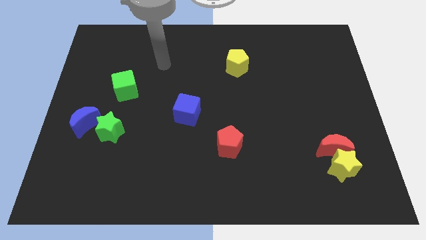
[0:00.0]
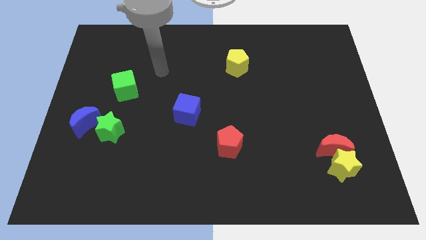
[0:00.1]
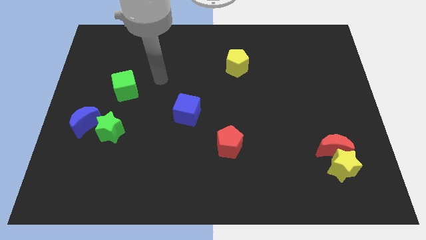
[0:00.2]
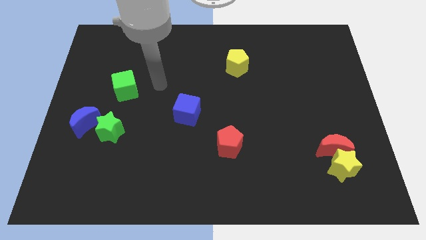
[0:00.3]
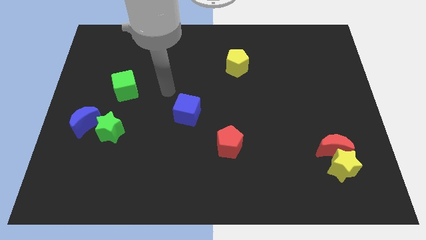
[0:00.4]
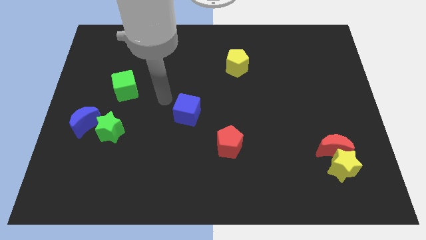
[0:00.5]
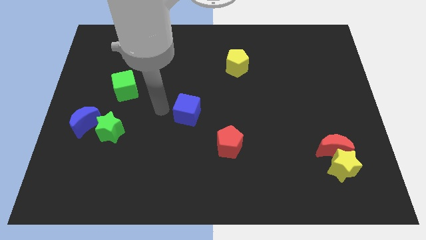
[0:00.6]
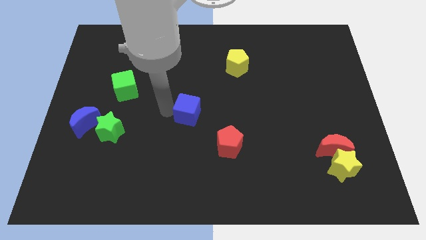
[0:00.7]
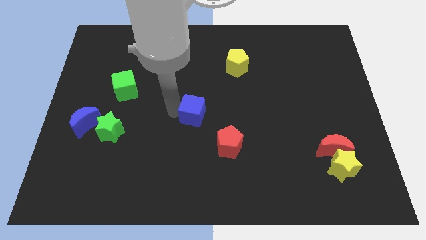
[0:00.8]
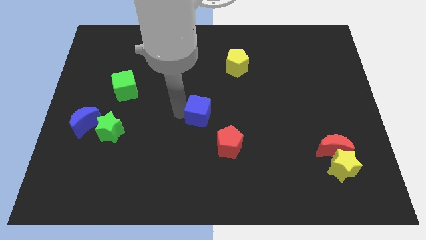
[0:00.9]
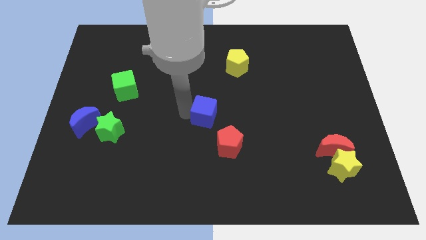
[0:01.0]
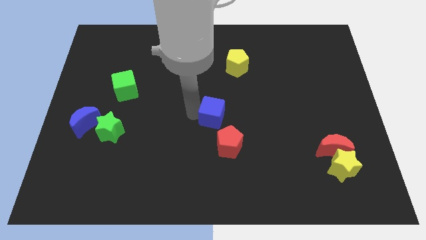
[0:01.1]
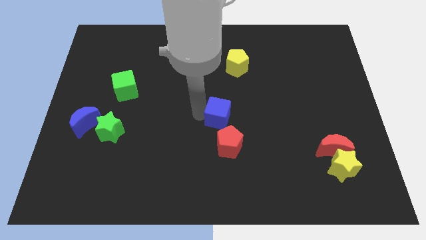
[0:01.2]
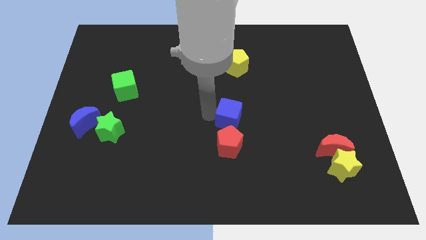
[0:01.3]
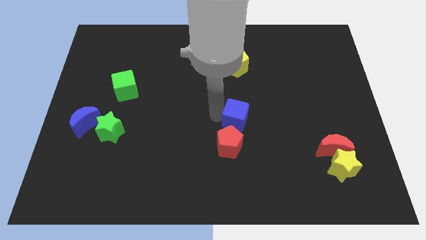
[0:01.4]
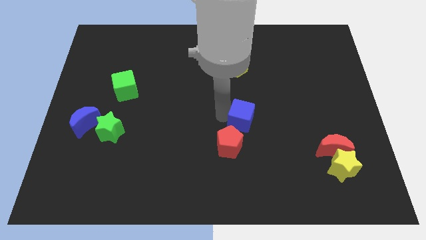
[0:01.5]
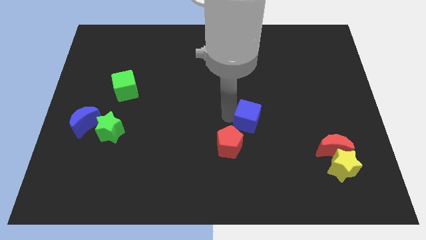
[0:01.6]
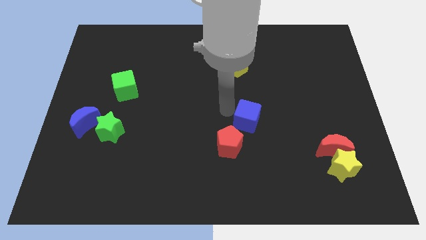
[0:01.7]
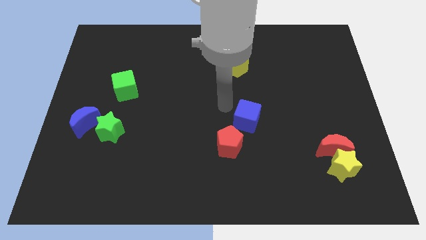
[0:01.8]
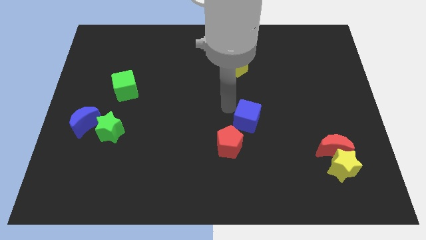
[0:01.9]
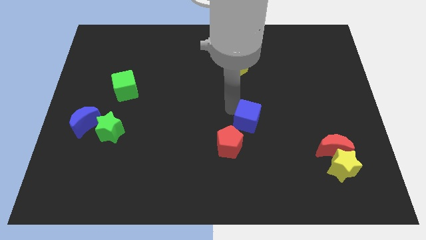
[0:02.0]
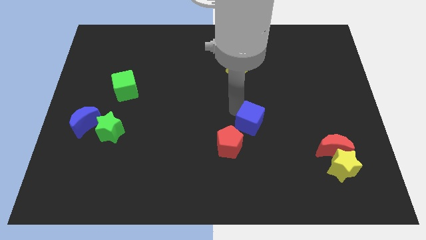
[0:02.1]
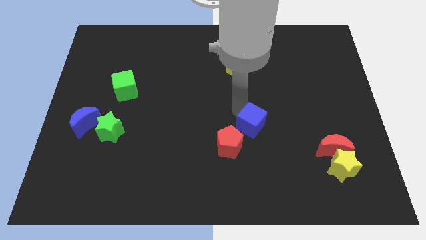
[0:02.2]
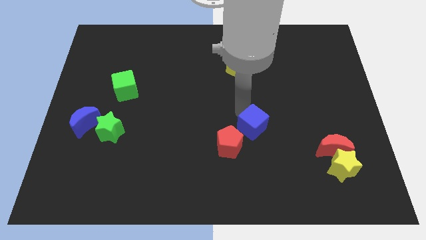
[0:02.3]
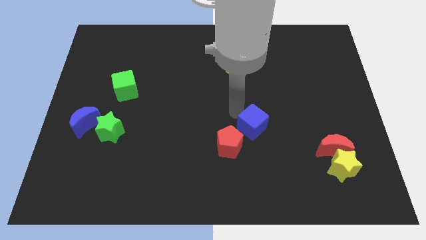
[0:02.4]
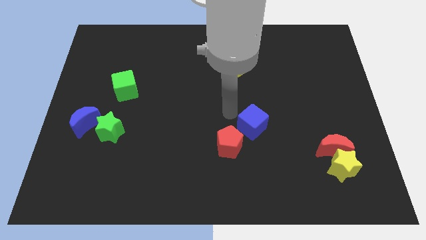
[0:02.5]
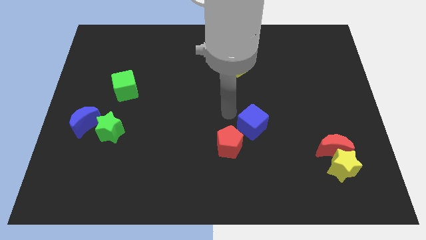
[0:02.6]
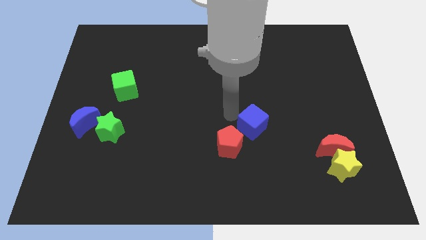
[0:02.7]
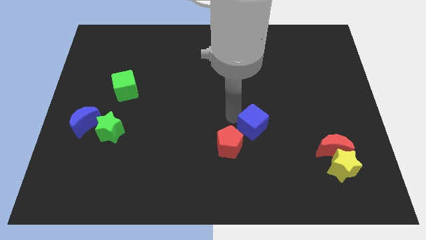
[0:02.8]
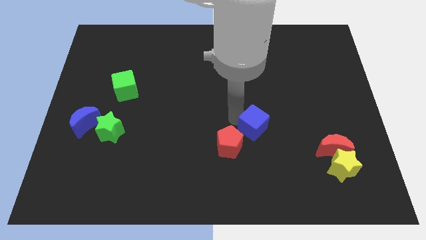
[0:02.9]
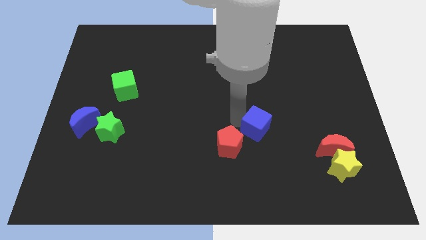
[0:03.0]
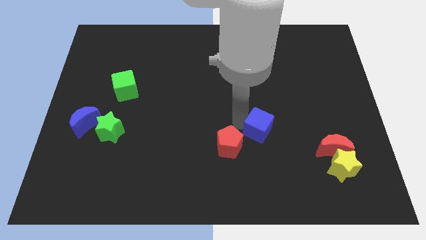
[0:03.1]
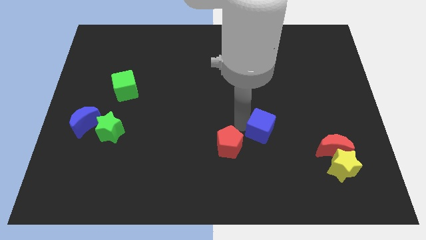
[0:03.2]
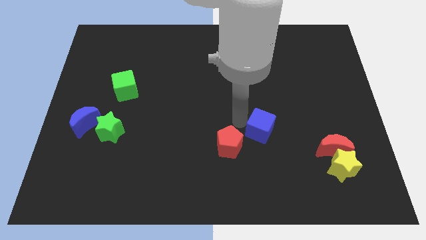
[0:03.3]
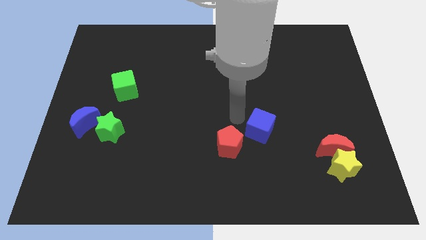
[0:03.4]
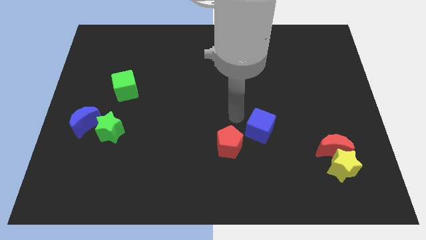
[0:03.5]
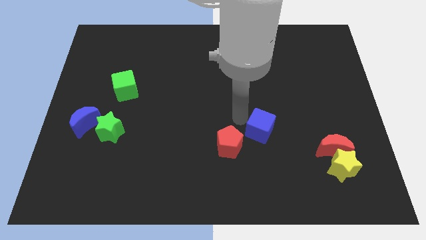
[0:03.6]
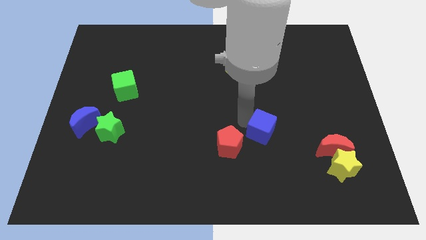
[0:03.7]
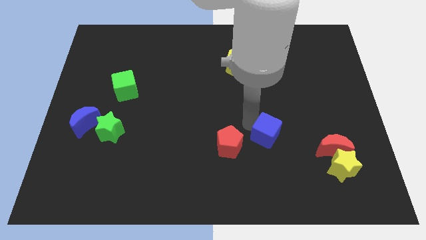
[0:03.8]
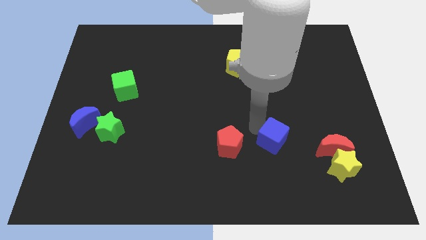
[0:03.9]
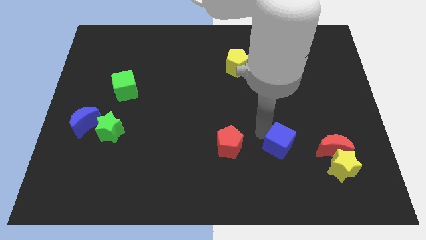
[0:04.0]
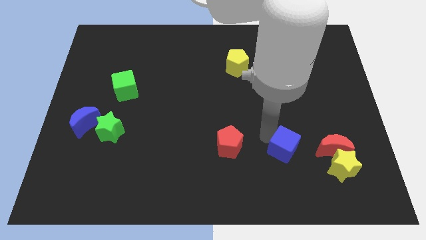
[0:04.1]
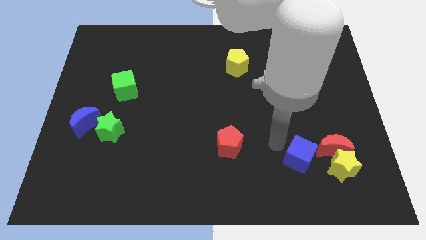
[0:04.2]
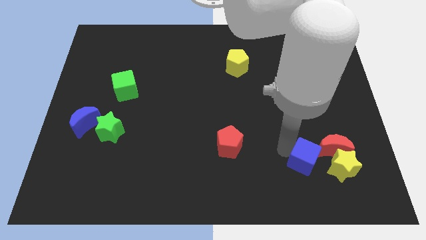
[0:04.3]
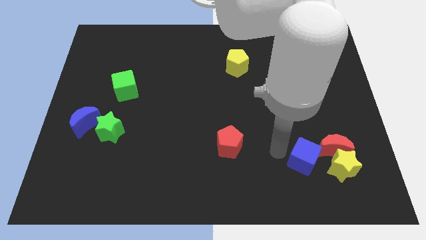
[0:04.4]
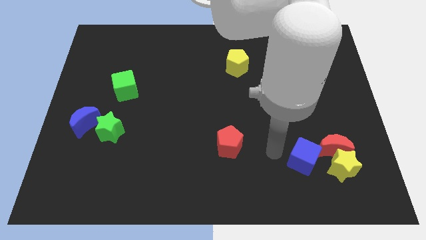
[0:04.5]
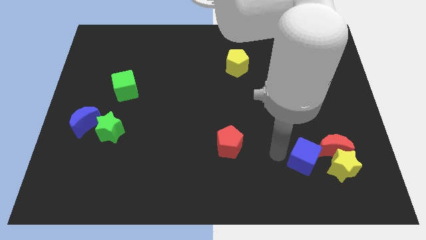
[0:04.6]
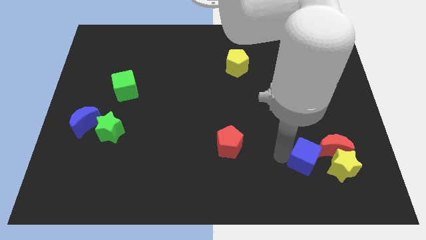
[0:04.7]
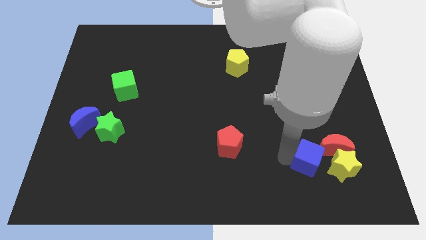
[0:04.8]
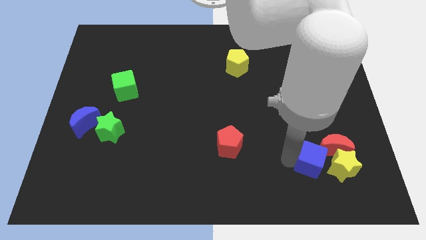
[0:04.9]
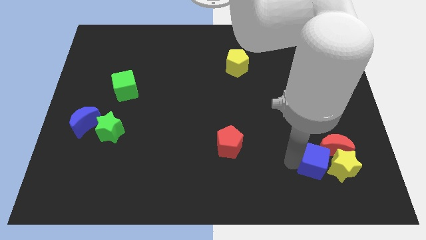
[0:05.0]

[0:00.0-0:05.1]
move the blue cube towards the yellow star

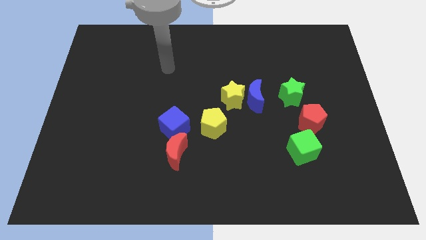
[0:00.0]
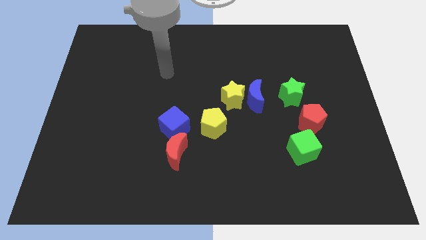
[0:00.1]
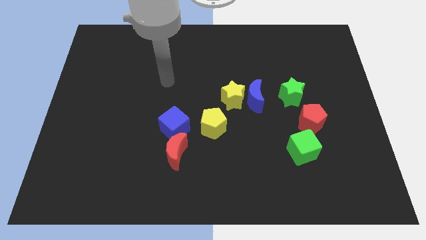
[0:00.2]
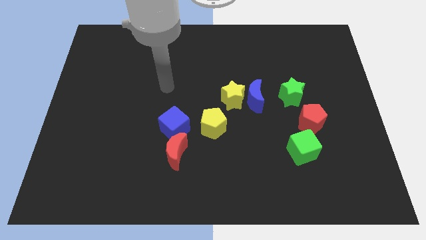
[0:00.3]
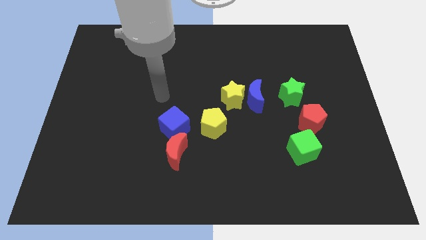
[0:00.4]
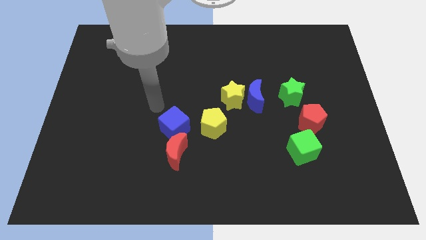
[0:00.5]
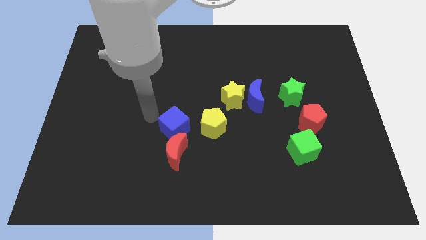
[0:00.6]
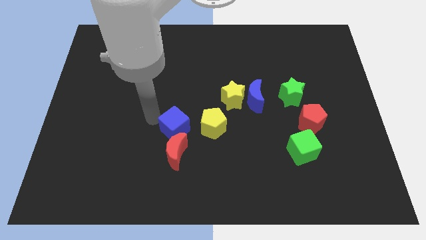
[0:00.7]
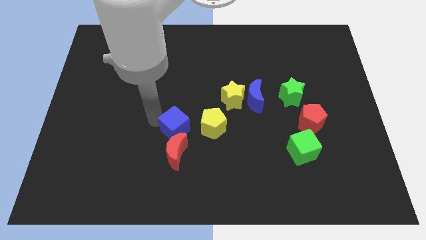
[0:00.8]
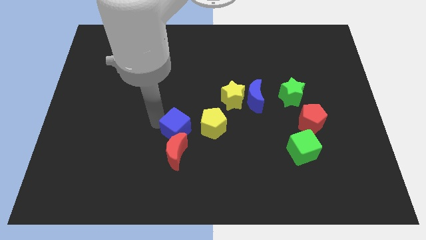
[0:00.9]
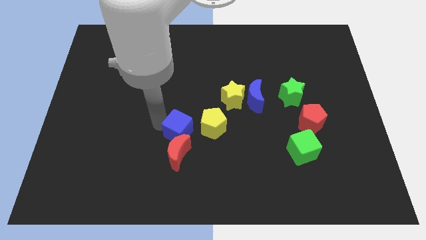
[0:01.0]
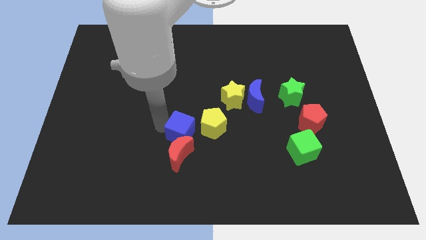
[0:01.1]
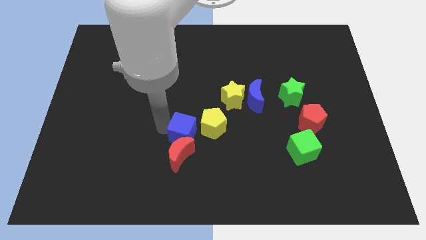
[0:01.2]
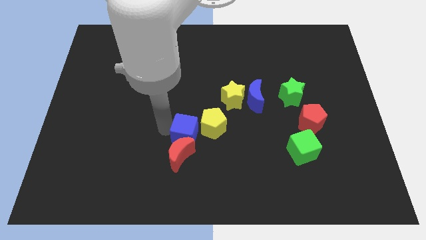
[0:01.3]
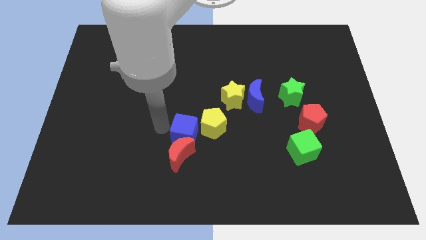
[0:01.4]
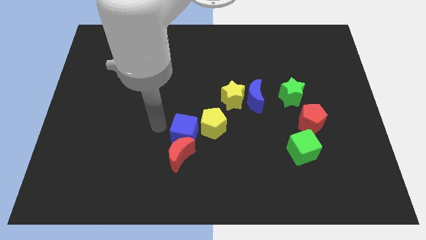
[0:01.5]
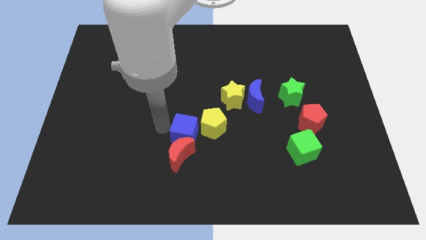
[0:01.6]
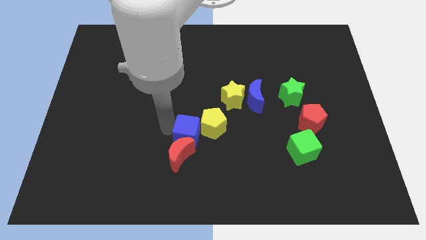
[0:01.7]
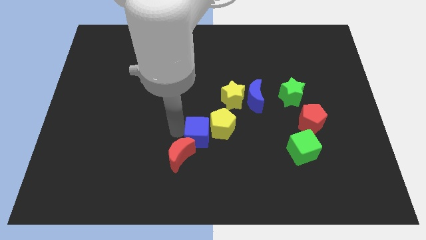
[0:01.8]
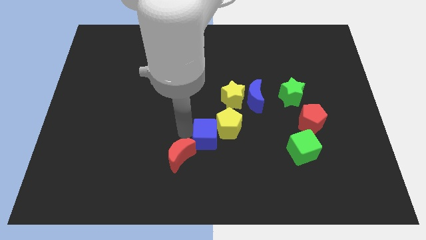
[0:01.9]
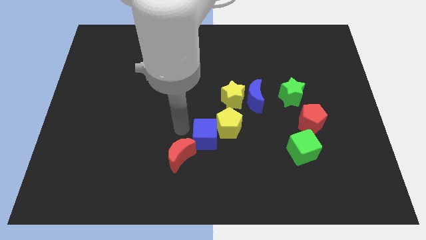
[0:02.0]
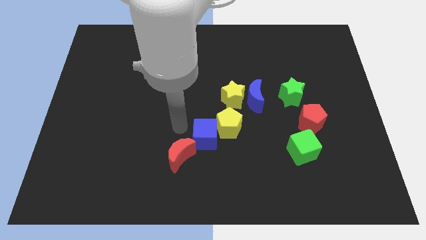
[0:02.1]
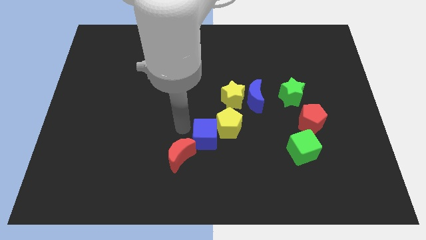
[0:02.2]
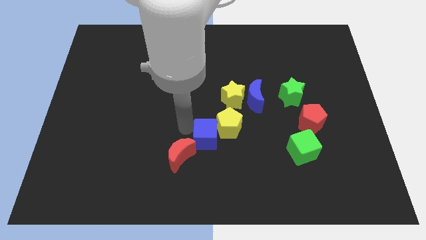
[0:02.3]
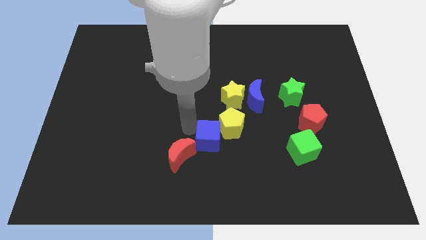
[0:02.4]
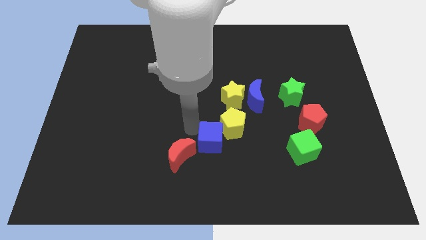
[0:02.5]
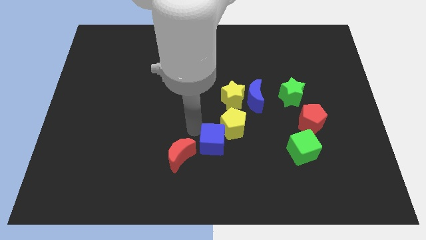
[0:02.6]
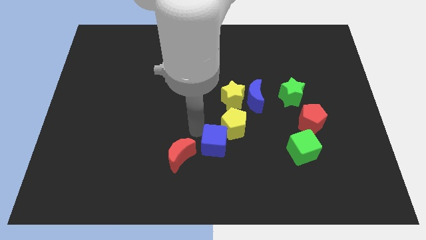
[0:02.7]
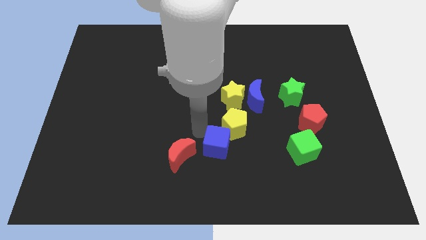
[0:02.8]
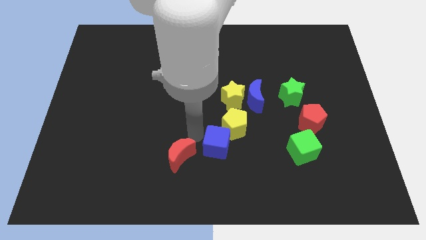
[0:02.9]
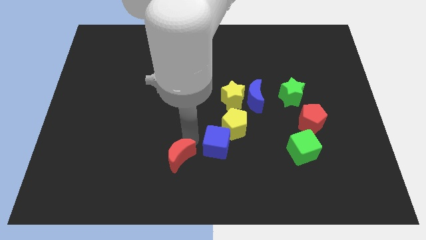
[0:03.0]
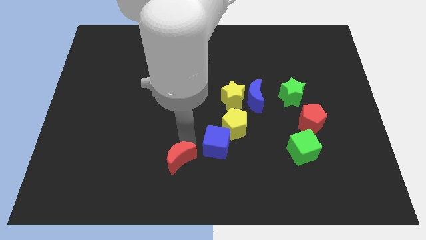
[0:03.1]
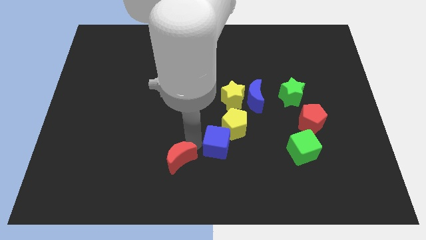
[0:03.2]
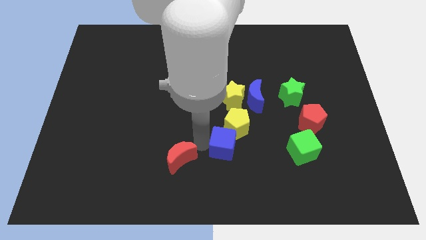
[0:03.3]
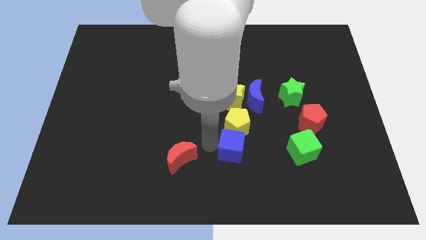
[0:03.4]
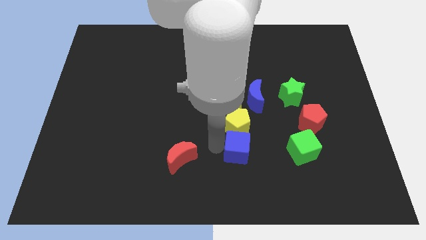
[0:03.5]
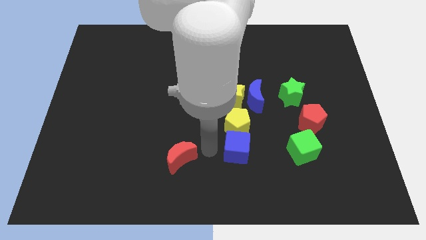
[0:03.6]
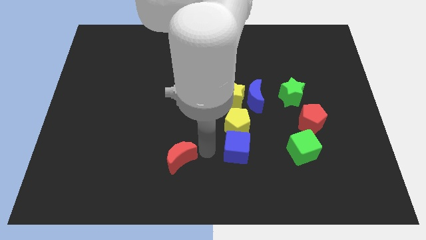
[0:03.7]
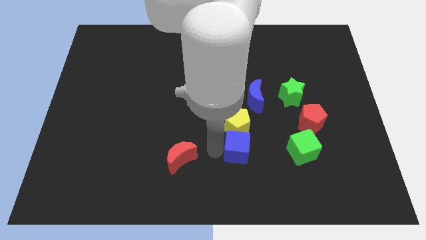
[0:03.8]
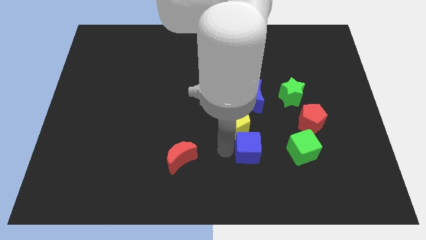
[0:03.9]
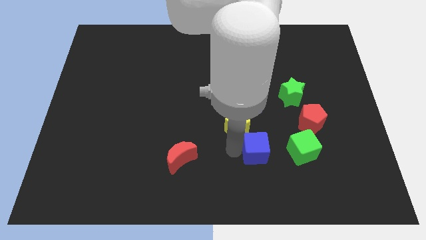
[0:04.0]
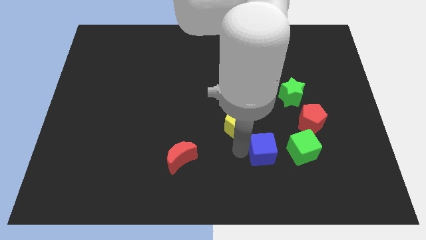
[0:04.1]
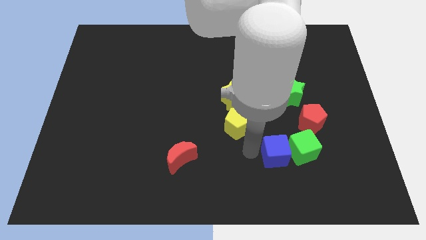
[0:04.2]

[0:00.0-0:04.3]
move the blue cube towards the green cube
